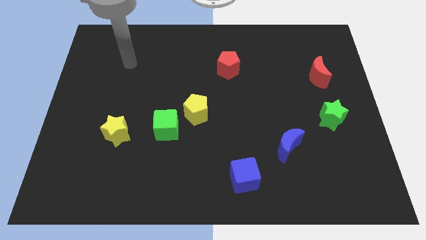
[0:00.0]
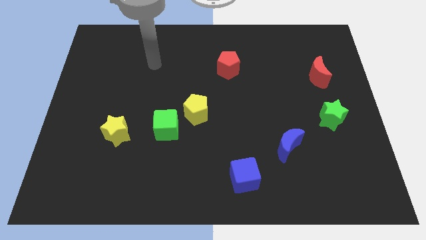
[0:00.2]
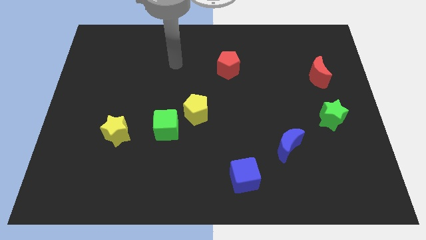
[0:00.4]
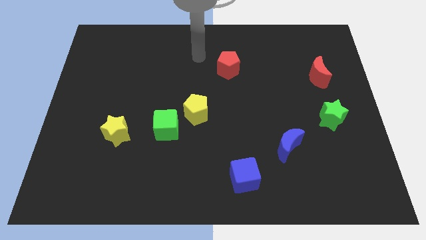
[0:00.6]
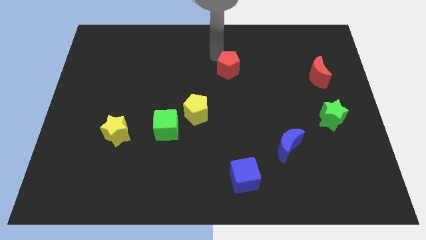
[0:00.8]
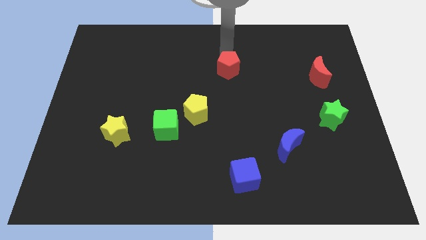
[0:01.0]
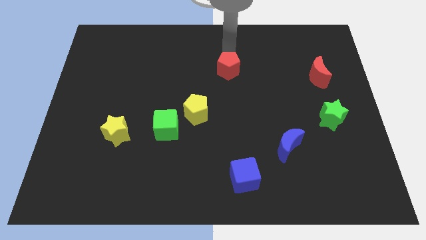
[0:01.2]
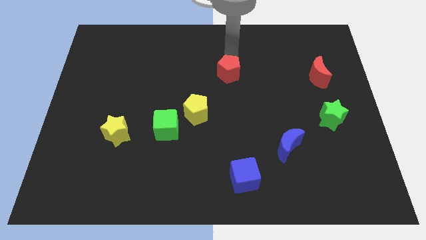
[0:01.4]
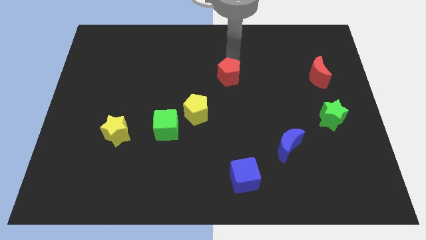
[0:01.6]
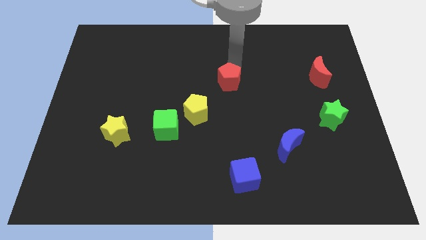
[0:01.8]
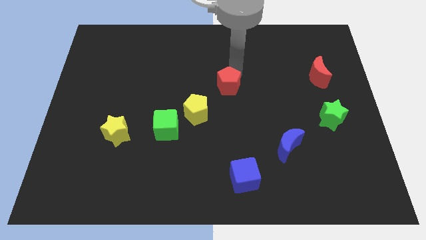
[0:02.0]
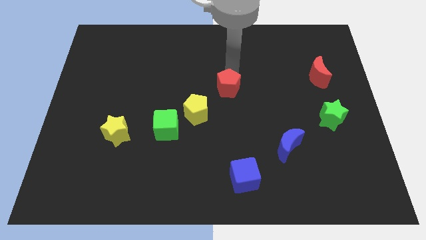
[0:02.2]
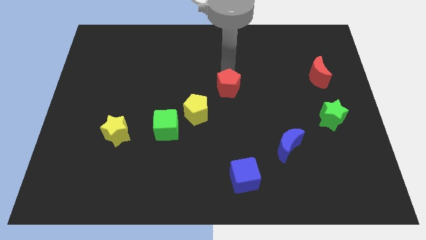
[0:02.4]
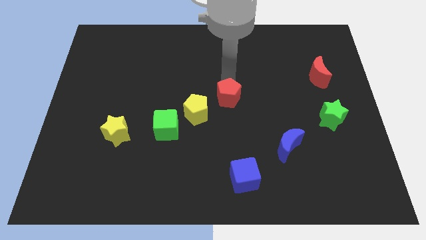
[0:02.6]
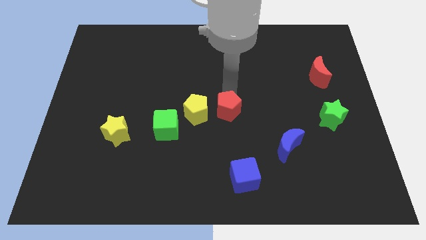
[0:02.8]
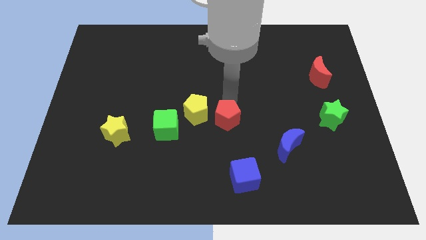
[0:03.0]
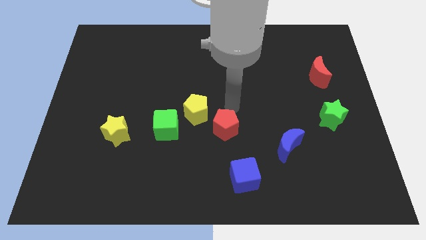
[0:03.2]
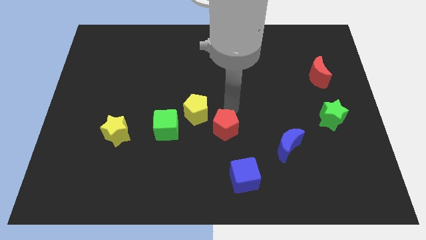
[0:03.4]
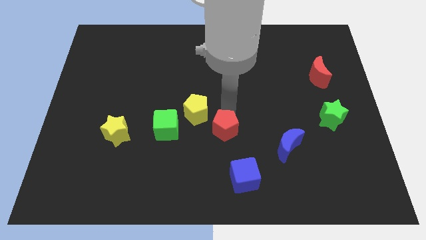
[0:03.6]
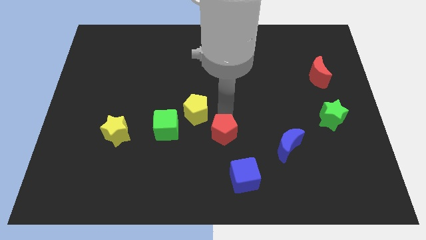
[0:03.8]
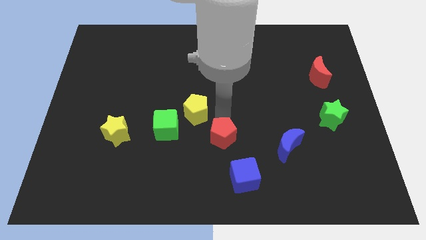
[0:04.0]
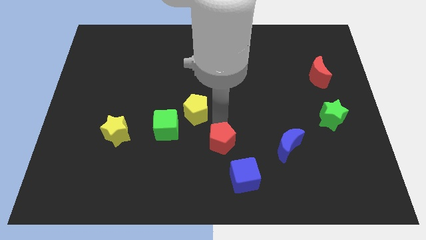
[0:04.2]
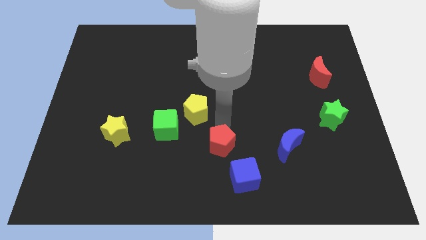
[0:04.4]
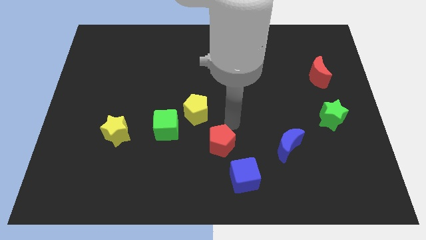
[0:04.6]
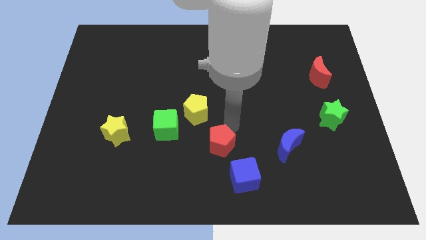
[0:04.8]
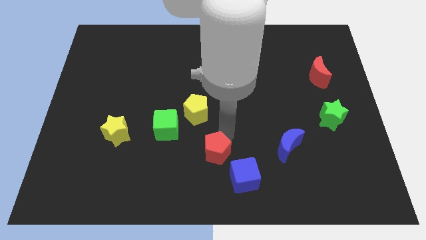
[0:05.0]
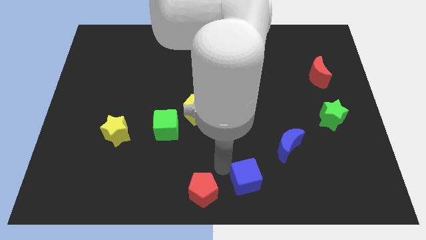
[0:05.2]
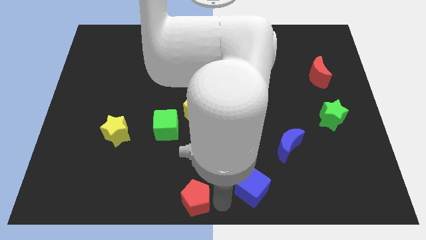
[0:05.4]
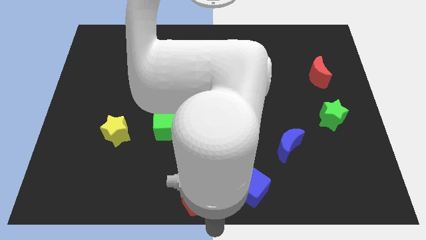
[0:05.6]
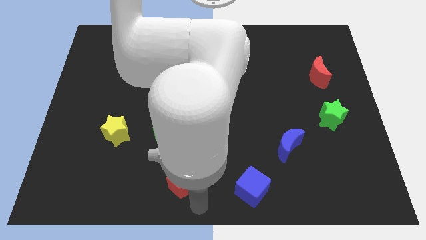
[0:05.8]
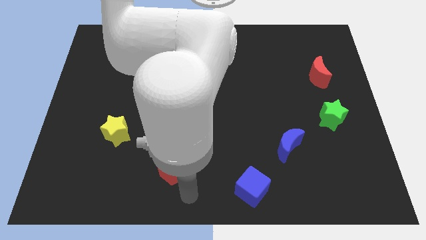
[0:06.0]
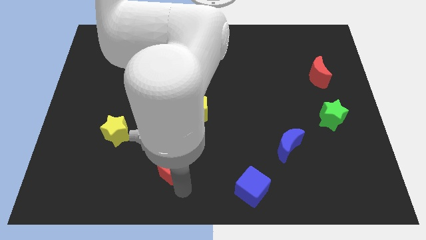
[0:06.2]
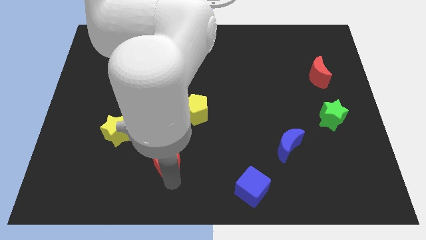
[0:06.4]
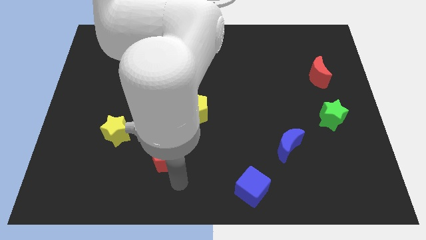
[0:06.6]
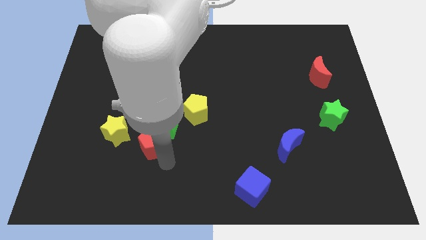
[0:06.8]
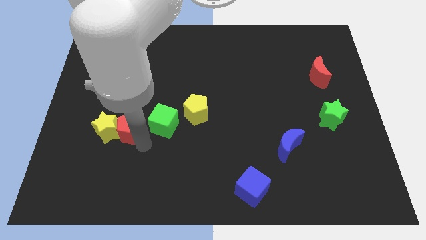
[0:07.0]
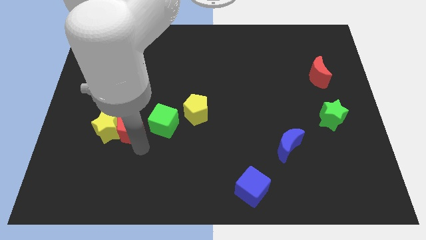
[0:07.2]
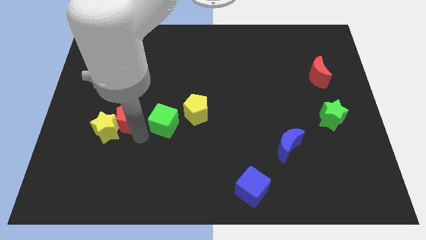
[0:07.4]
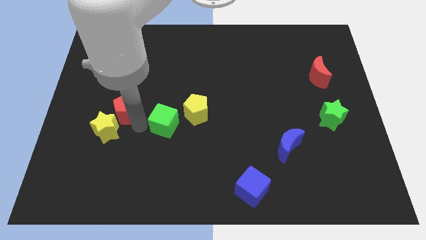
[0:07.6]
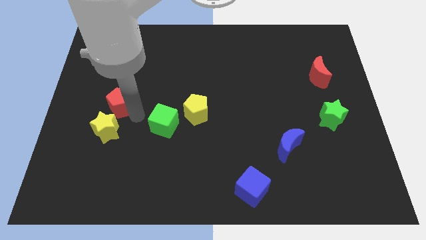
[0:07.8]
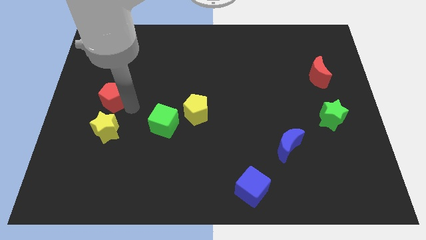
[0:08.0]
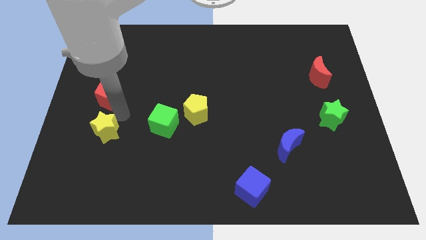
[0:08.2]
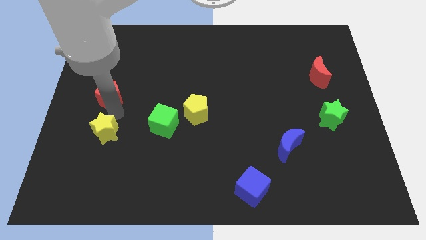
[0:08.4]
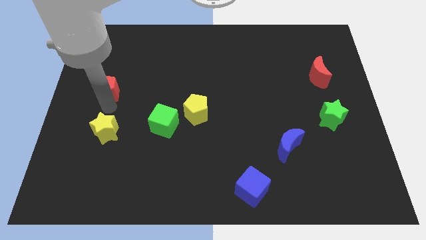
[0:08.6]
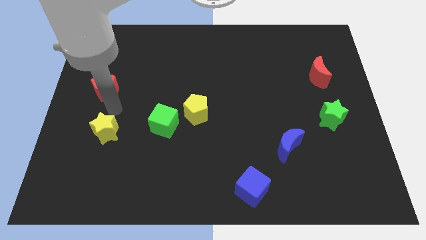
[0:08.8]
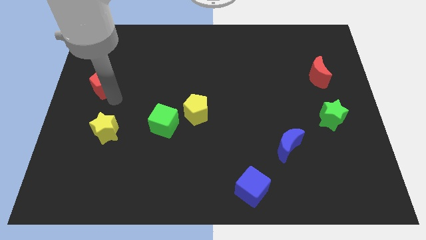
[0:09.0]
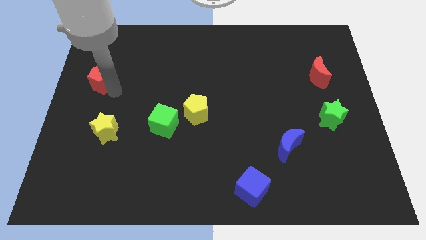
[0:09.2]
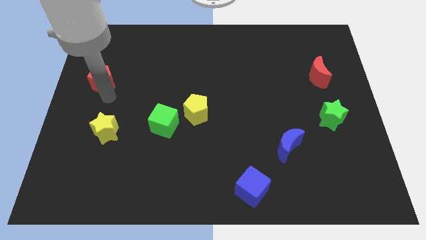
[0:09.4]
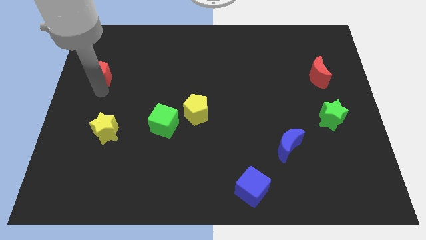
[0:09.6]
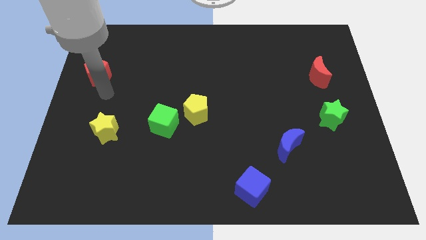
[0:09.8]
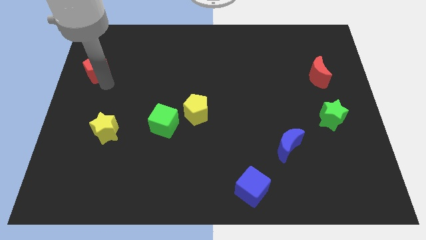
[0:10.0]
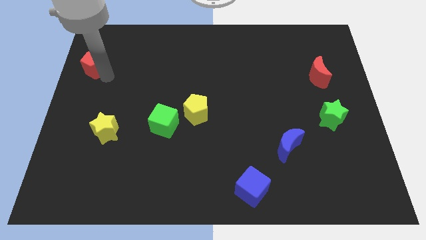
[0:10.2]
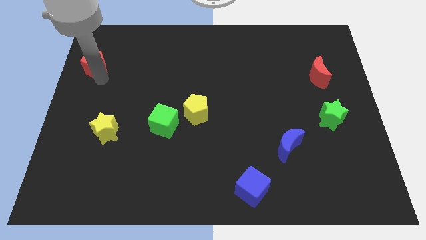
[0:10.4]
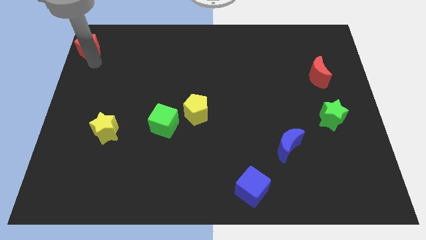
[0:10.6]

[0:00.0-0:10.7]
move the red pentagon to the upper left corner
